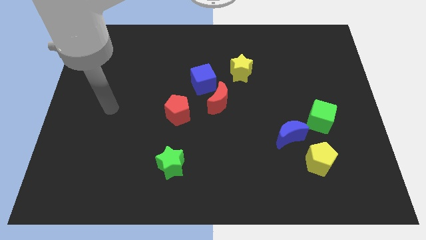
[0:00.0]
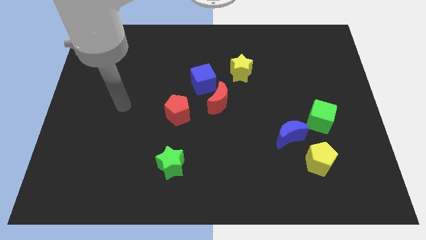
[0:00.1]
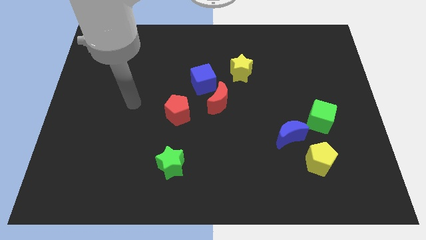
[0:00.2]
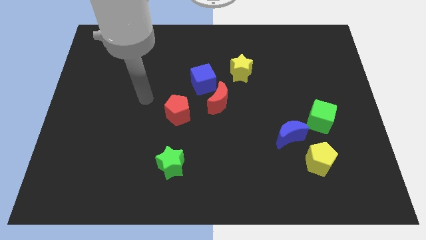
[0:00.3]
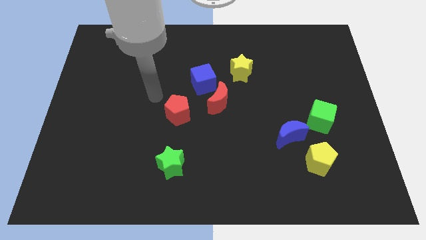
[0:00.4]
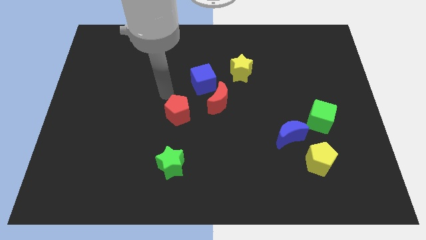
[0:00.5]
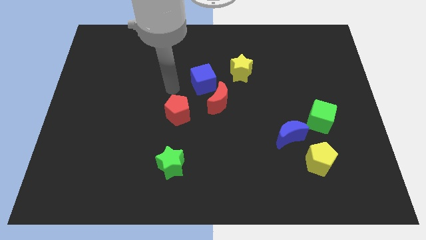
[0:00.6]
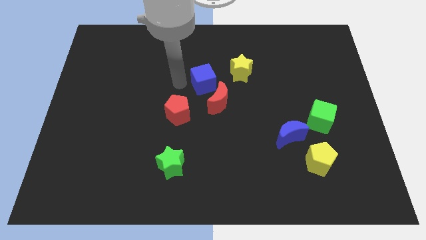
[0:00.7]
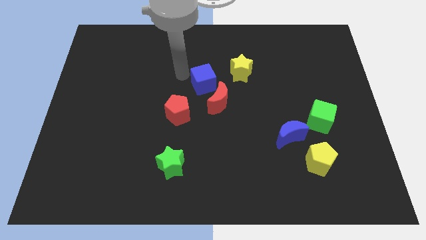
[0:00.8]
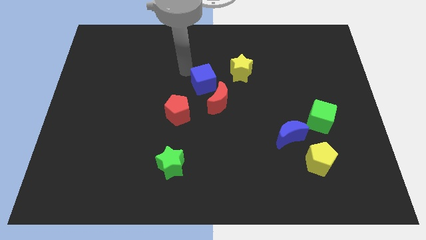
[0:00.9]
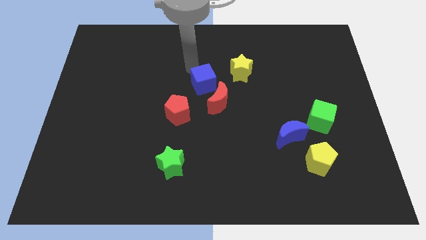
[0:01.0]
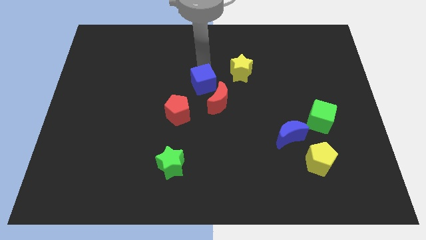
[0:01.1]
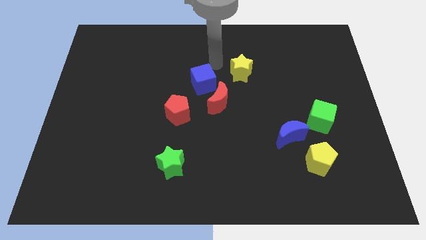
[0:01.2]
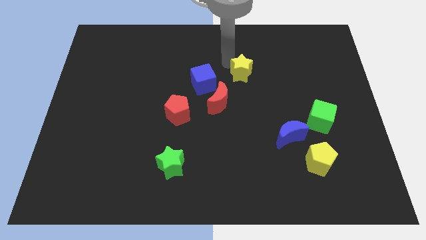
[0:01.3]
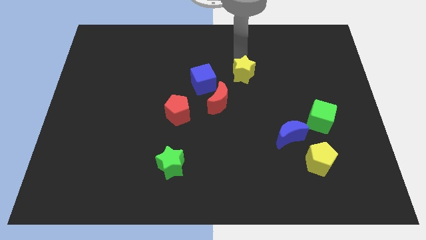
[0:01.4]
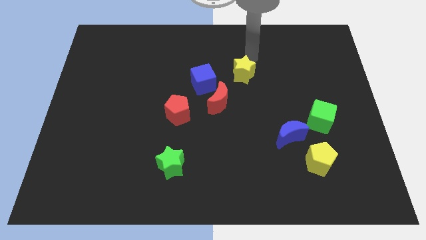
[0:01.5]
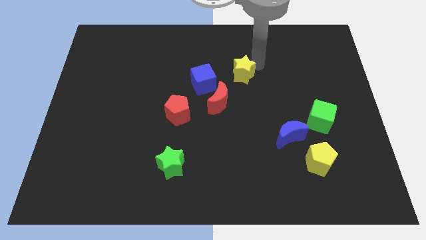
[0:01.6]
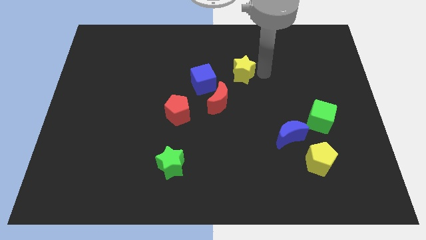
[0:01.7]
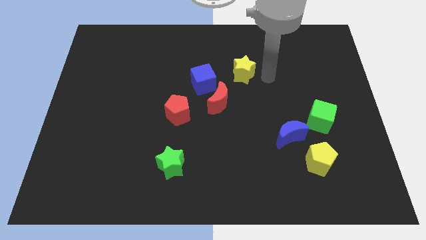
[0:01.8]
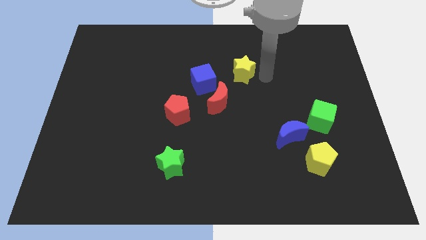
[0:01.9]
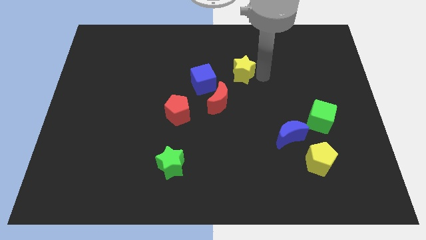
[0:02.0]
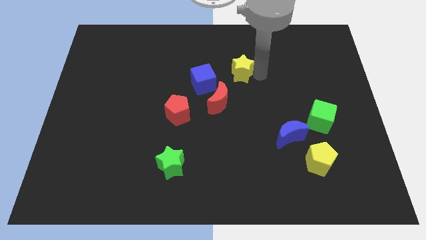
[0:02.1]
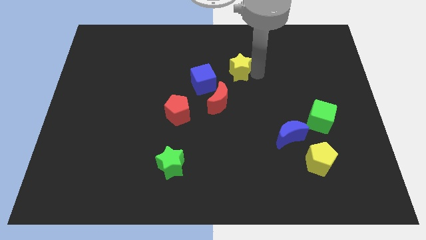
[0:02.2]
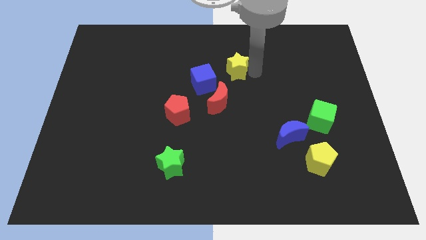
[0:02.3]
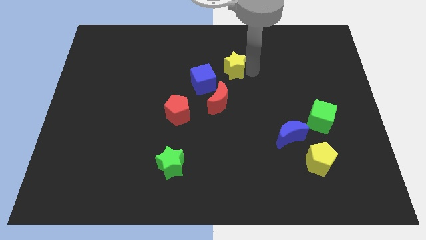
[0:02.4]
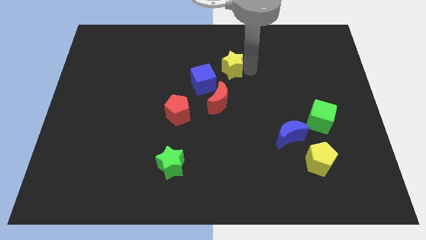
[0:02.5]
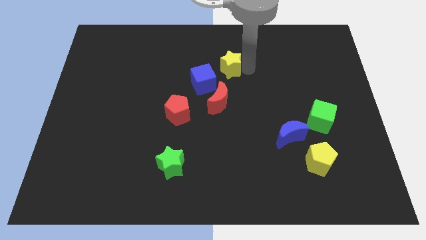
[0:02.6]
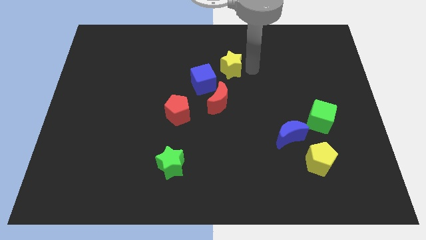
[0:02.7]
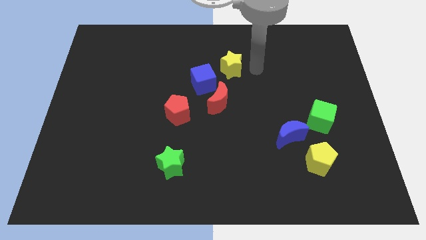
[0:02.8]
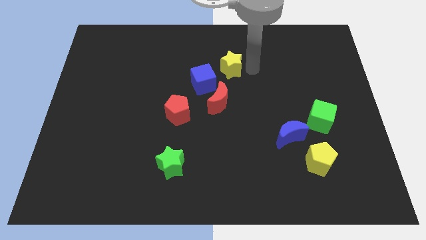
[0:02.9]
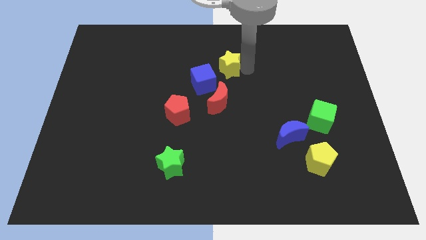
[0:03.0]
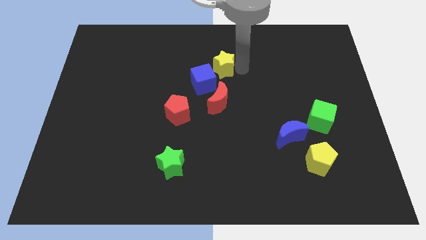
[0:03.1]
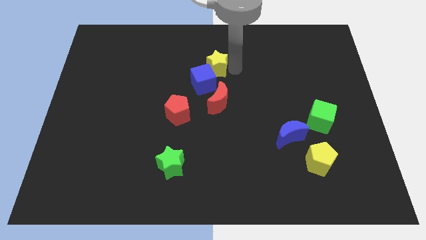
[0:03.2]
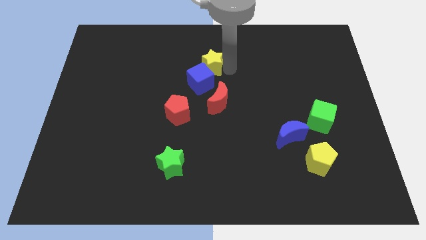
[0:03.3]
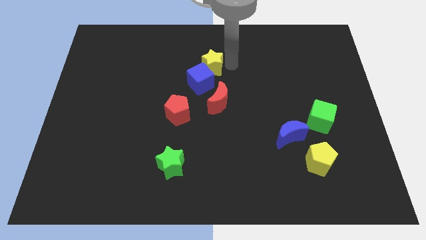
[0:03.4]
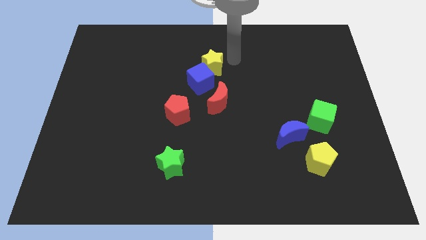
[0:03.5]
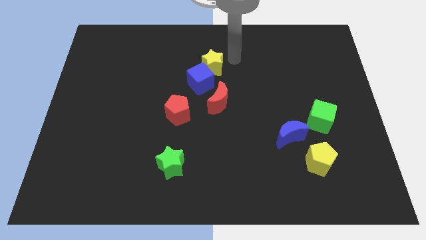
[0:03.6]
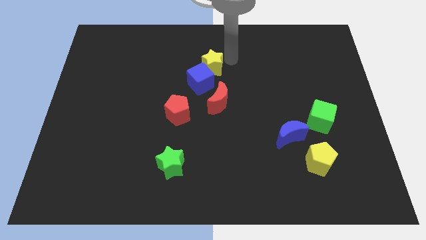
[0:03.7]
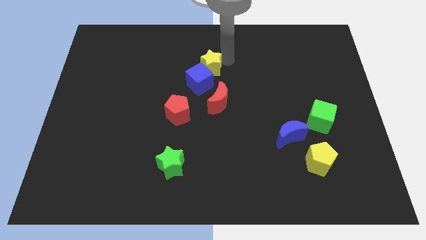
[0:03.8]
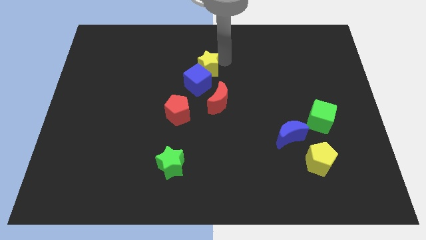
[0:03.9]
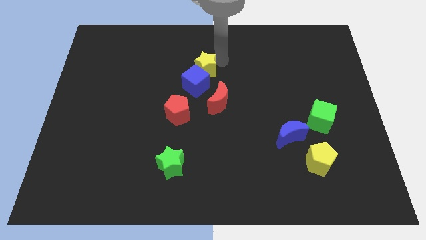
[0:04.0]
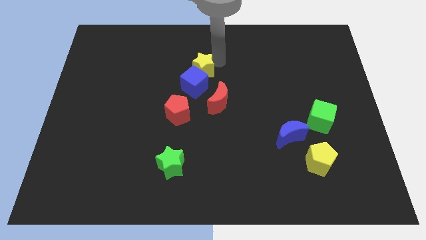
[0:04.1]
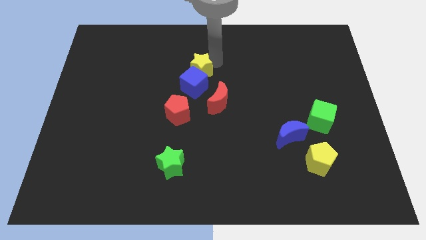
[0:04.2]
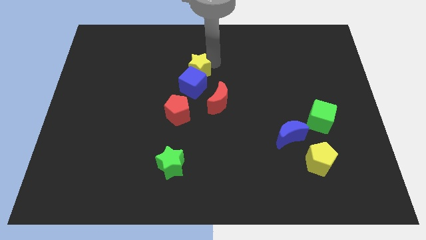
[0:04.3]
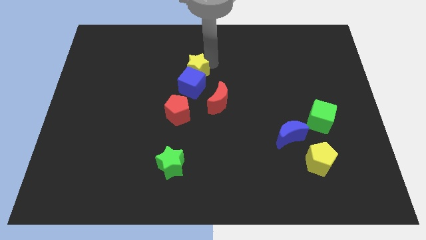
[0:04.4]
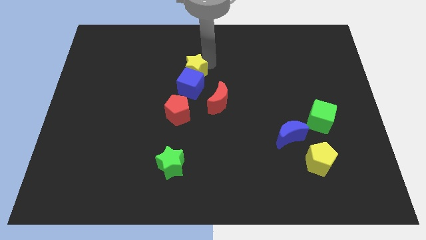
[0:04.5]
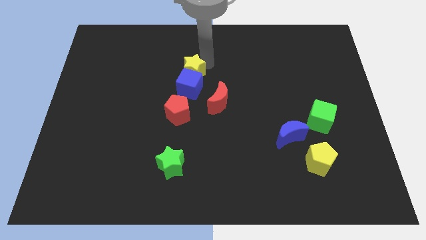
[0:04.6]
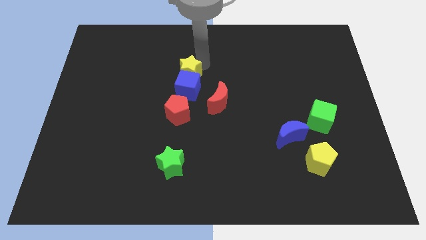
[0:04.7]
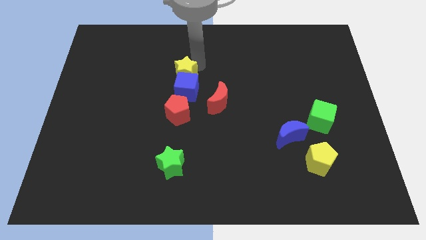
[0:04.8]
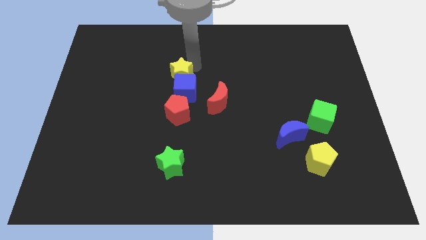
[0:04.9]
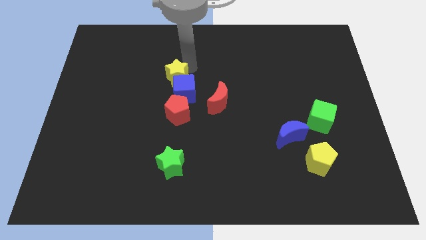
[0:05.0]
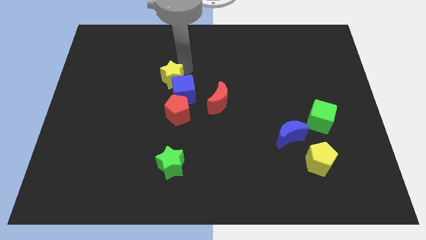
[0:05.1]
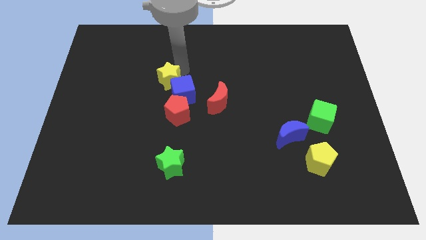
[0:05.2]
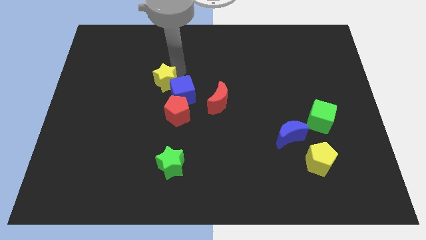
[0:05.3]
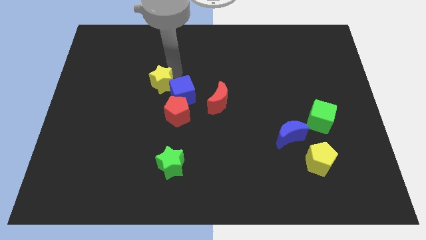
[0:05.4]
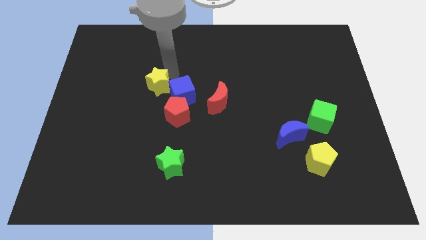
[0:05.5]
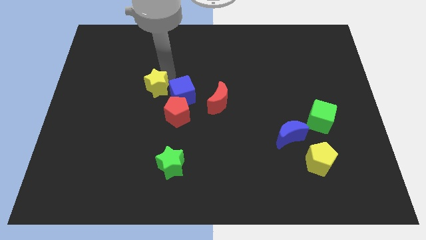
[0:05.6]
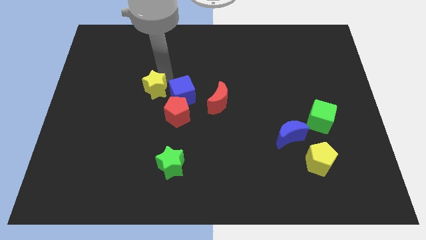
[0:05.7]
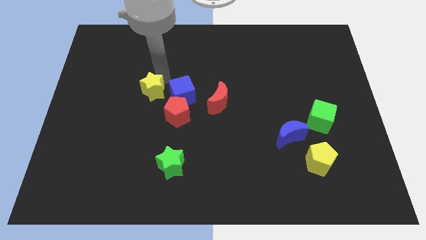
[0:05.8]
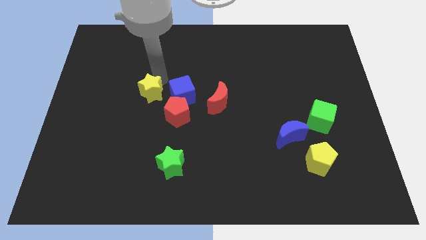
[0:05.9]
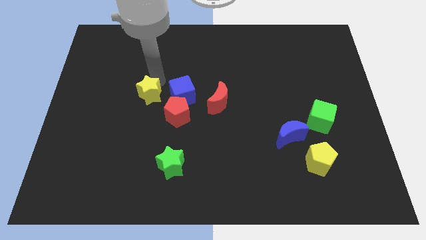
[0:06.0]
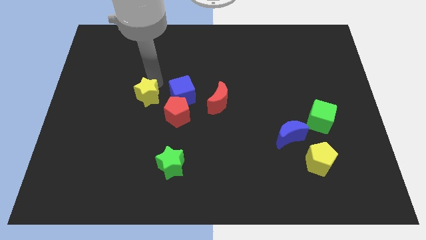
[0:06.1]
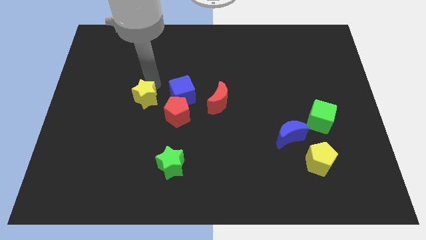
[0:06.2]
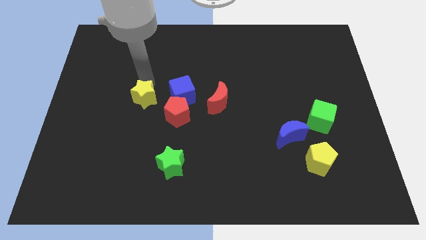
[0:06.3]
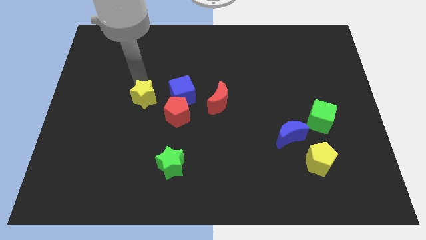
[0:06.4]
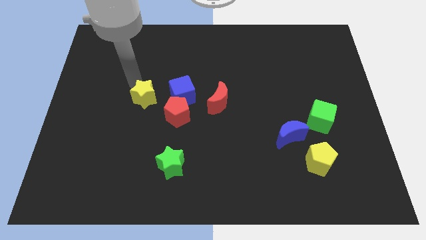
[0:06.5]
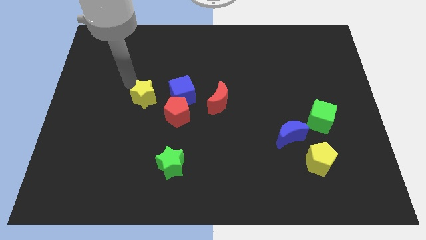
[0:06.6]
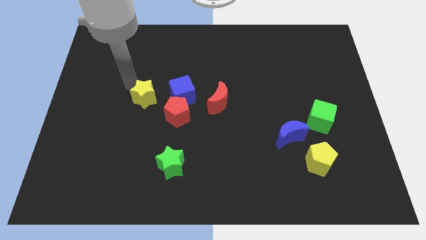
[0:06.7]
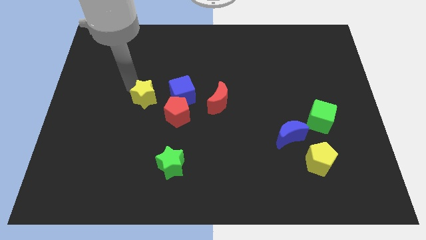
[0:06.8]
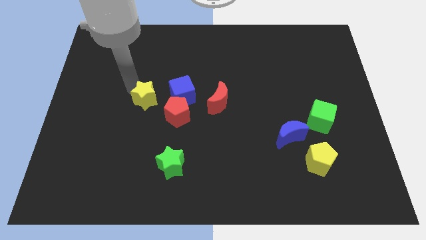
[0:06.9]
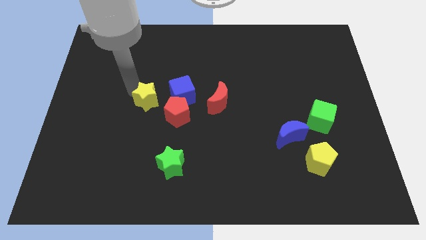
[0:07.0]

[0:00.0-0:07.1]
put the yellow star to the bottom left of the blue cube
